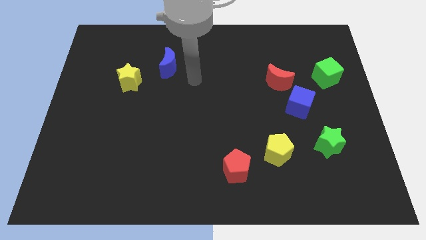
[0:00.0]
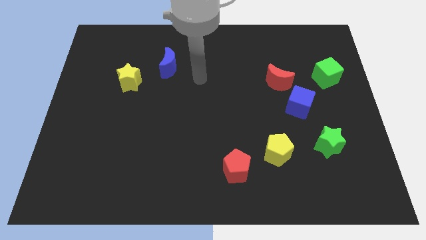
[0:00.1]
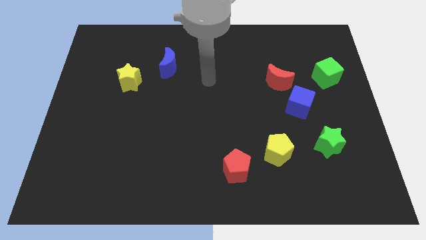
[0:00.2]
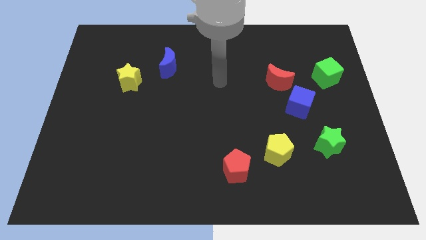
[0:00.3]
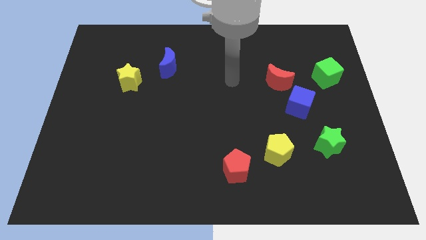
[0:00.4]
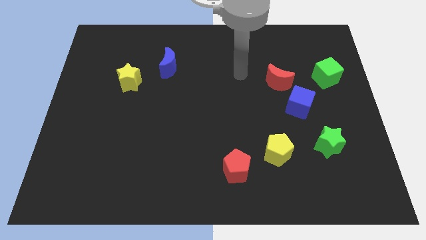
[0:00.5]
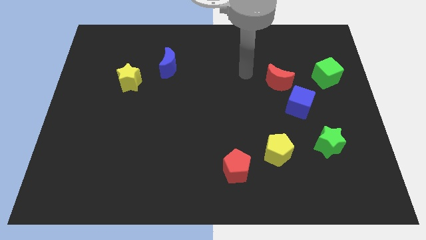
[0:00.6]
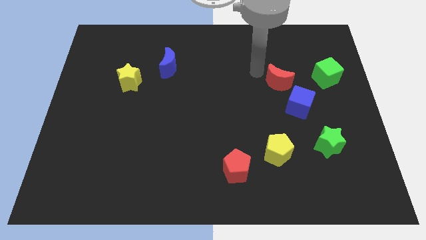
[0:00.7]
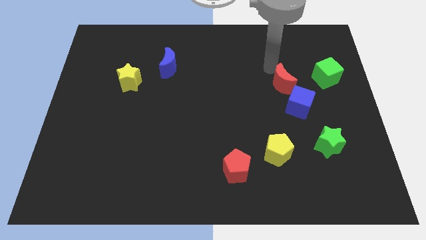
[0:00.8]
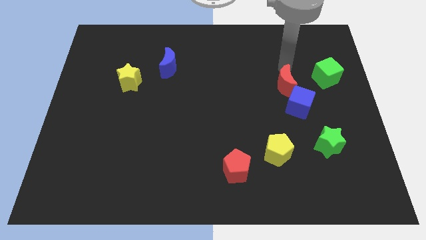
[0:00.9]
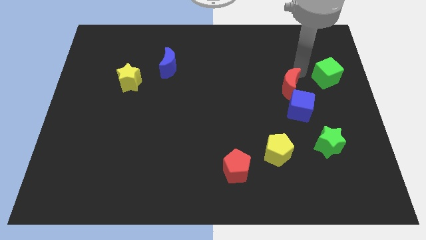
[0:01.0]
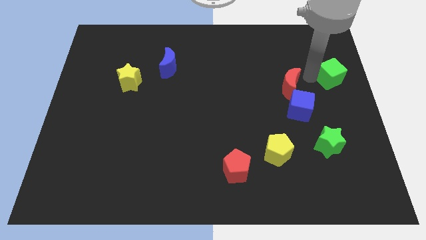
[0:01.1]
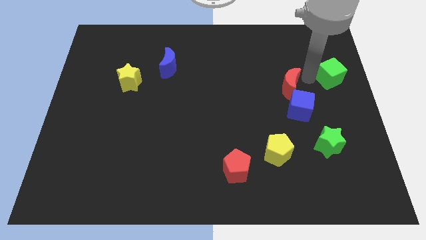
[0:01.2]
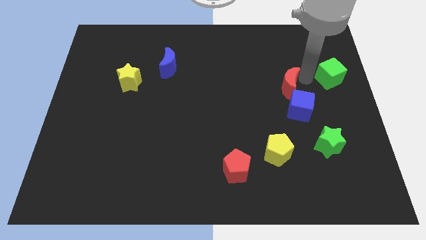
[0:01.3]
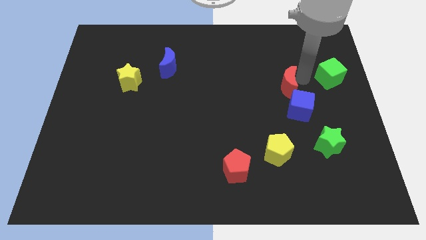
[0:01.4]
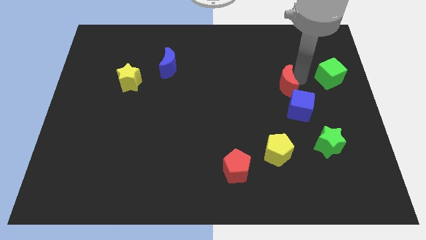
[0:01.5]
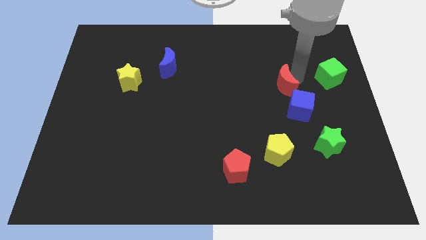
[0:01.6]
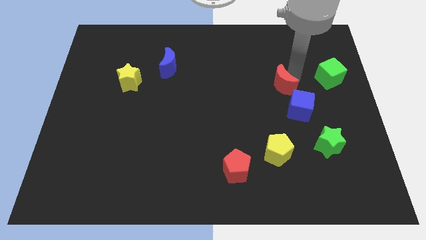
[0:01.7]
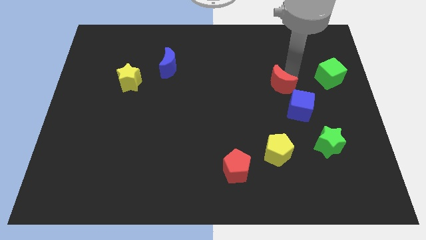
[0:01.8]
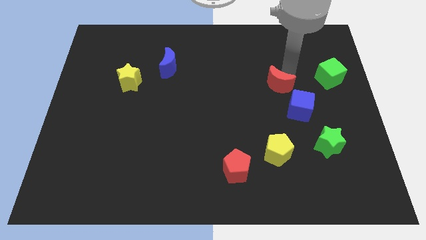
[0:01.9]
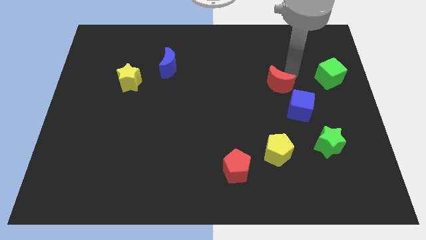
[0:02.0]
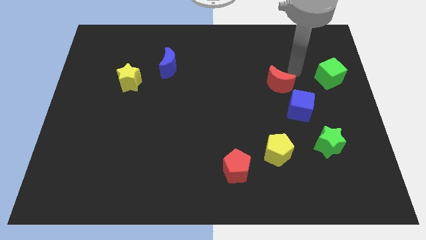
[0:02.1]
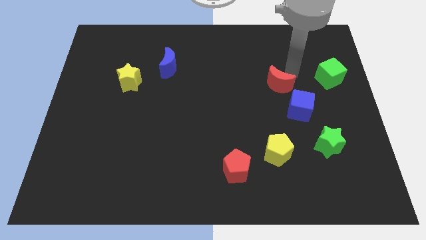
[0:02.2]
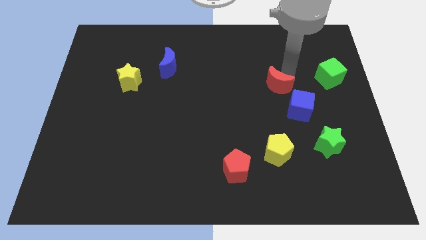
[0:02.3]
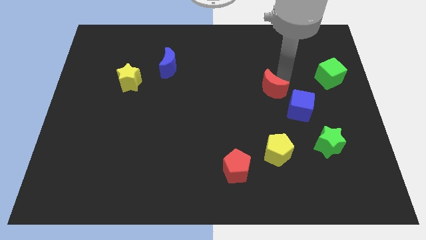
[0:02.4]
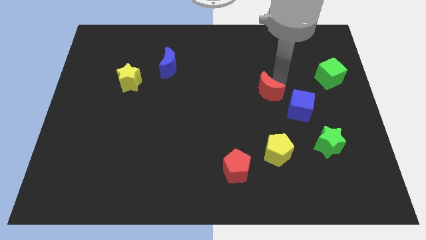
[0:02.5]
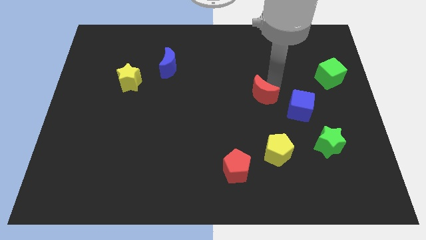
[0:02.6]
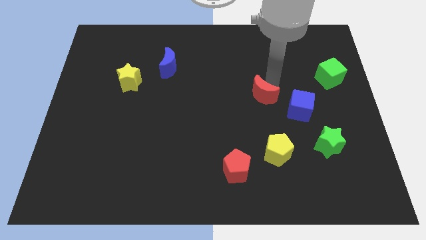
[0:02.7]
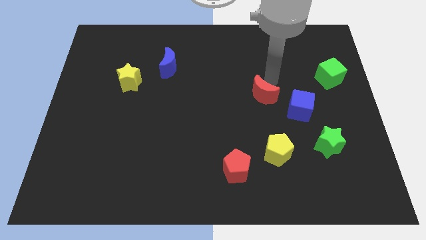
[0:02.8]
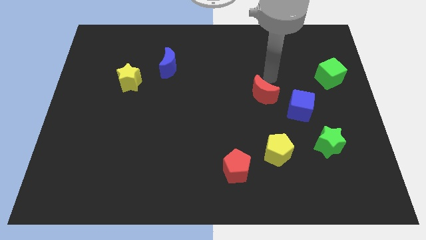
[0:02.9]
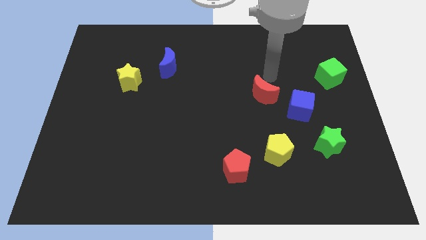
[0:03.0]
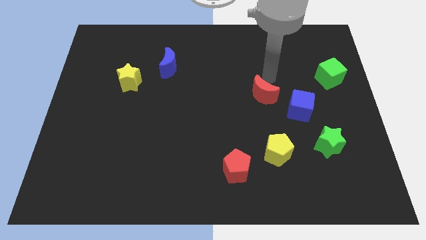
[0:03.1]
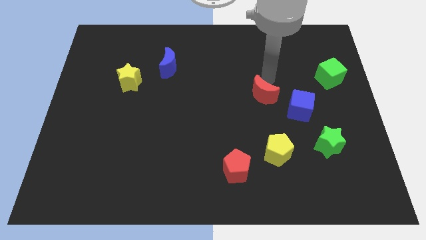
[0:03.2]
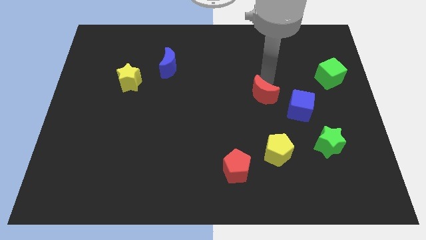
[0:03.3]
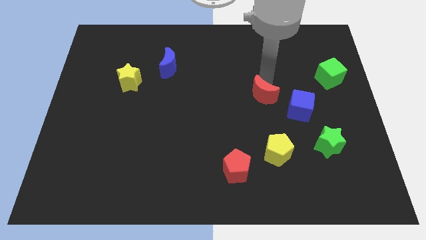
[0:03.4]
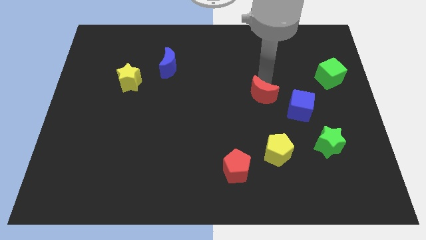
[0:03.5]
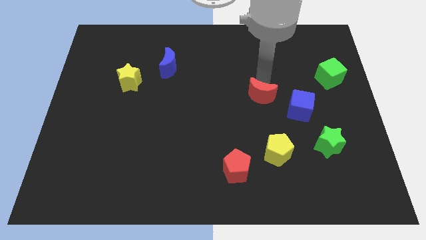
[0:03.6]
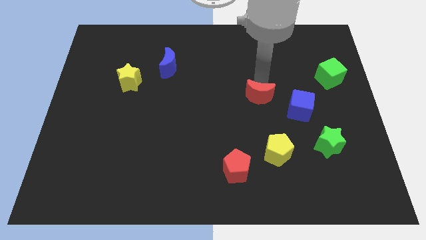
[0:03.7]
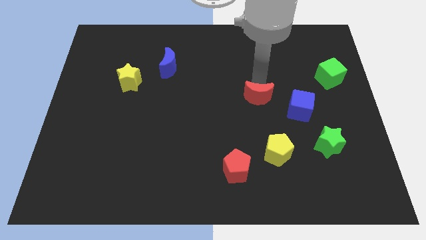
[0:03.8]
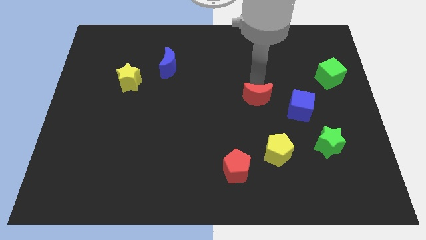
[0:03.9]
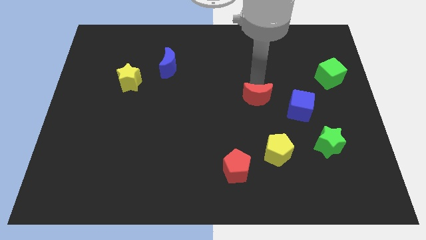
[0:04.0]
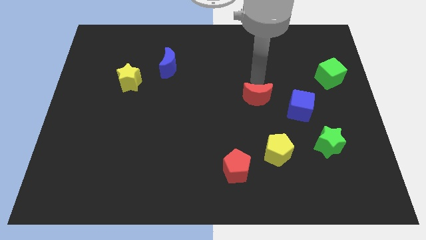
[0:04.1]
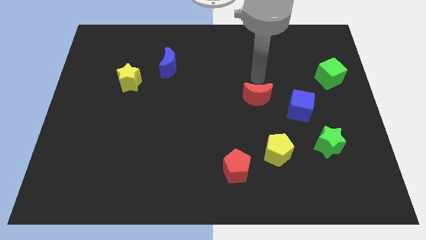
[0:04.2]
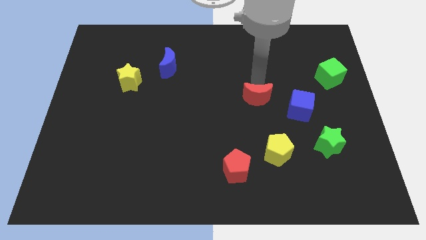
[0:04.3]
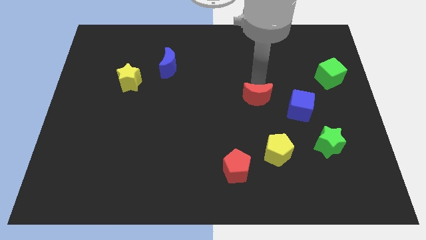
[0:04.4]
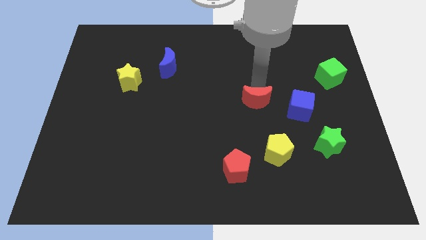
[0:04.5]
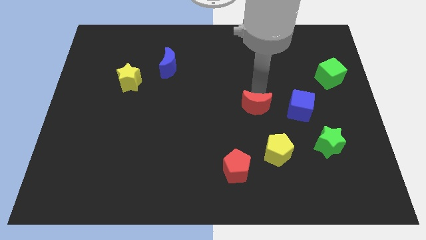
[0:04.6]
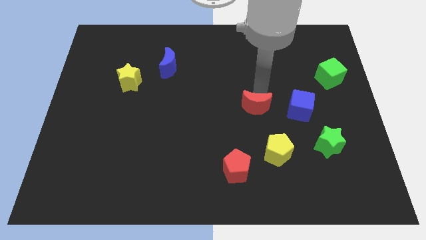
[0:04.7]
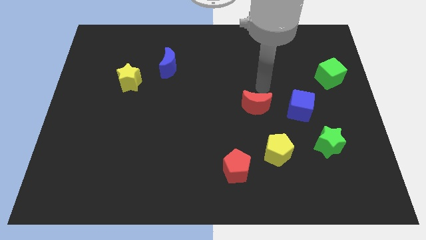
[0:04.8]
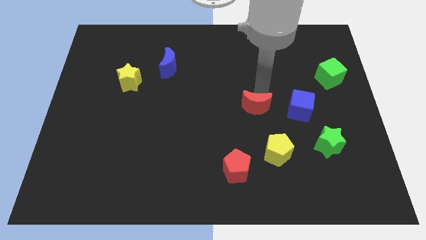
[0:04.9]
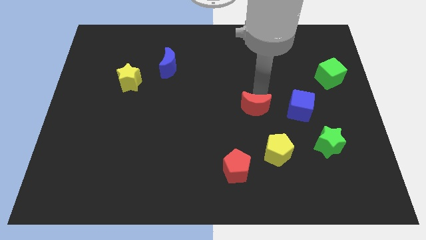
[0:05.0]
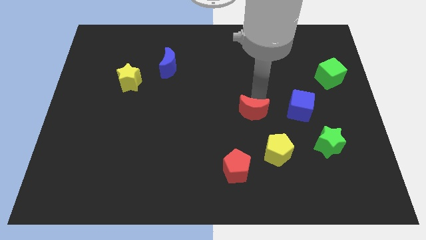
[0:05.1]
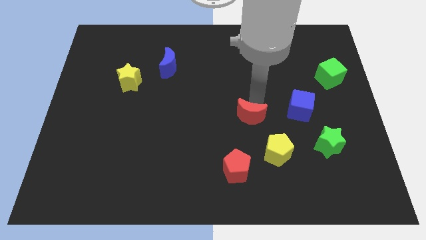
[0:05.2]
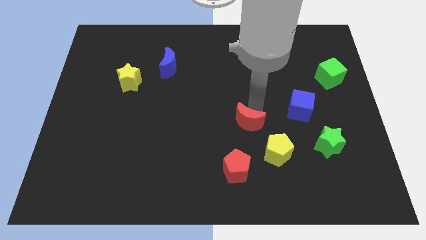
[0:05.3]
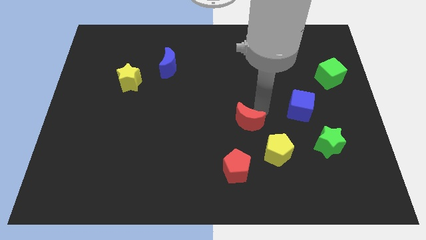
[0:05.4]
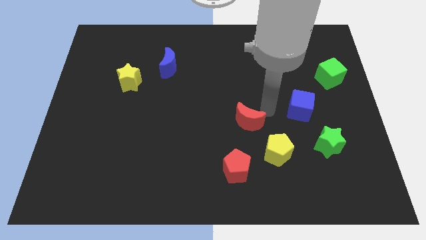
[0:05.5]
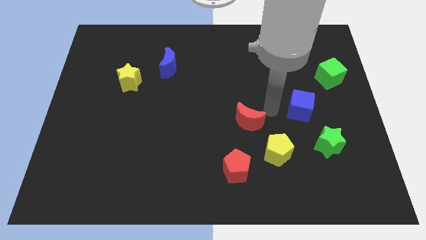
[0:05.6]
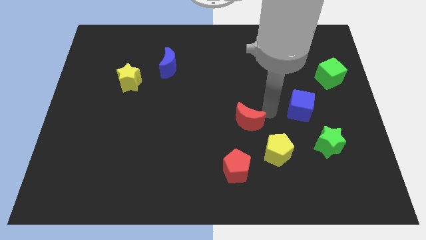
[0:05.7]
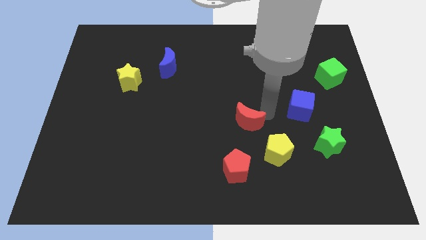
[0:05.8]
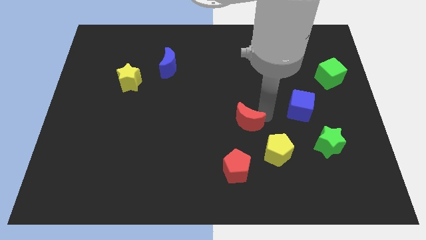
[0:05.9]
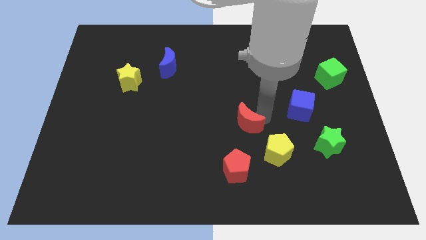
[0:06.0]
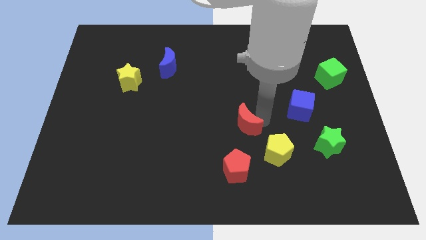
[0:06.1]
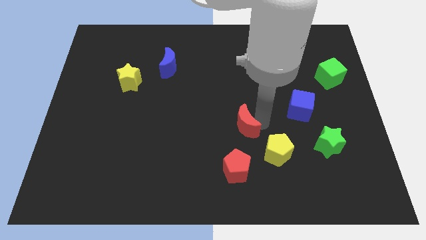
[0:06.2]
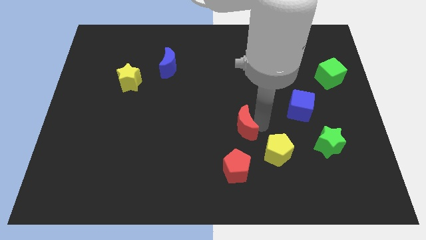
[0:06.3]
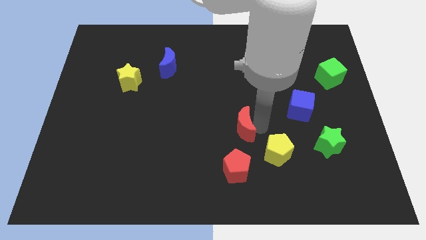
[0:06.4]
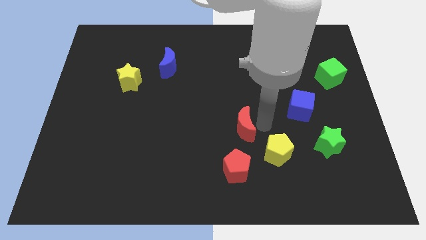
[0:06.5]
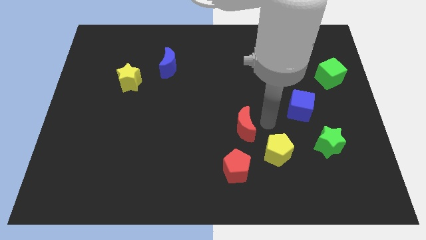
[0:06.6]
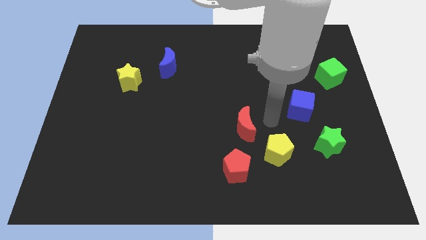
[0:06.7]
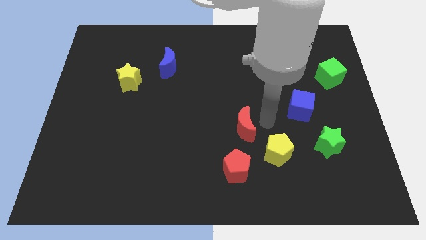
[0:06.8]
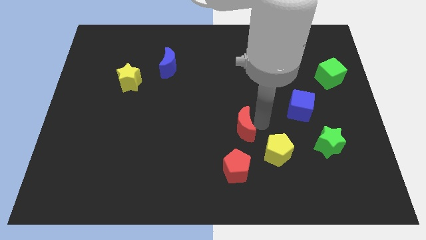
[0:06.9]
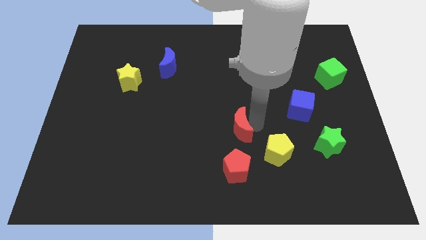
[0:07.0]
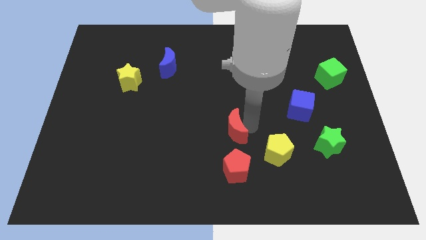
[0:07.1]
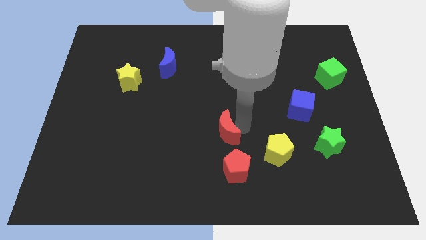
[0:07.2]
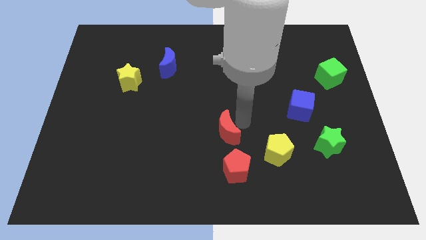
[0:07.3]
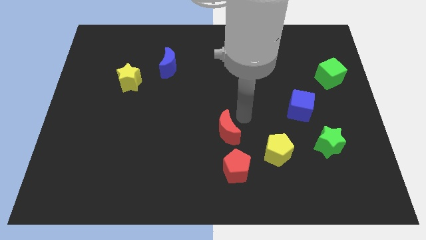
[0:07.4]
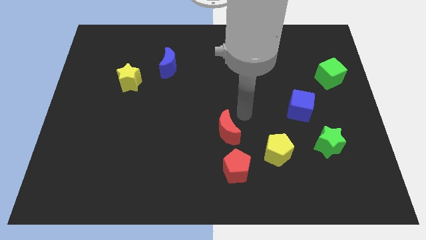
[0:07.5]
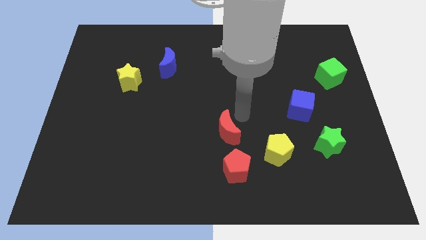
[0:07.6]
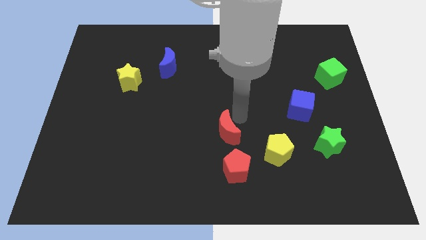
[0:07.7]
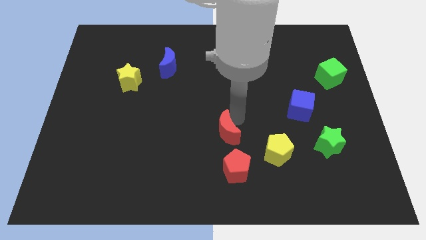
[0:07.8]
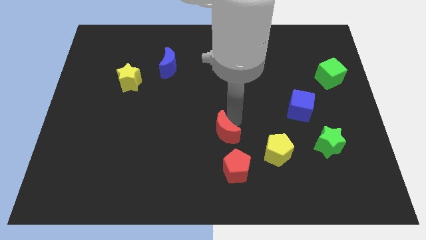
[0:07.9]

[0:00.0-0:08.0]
put the red moon diagonally up and to the left of the red pentagon
